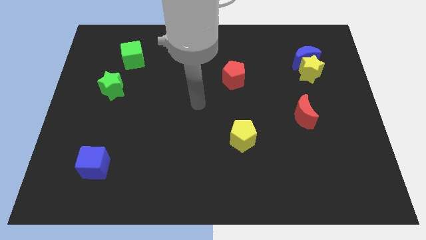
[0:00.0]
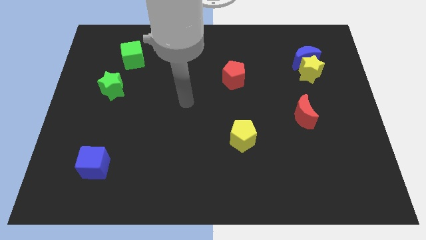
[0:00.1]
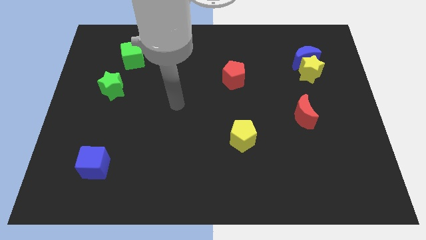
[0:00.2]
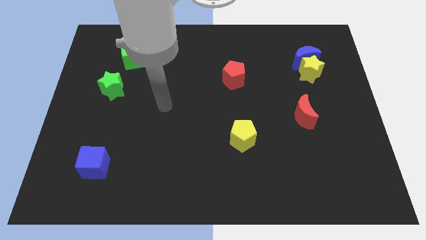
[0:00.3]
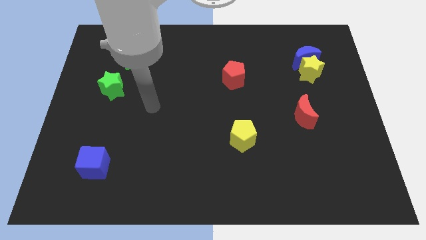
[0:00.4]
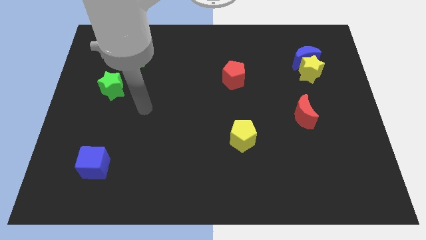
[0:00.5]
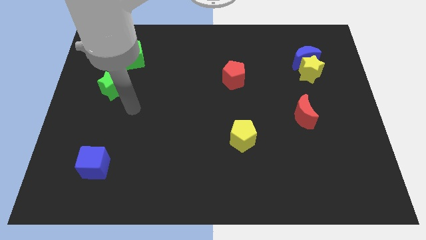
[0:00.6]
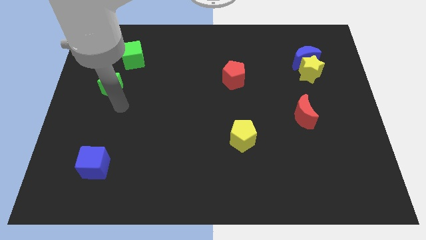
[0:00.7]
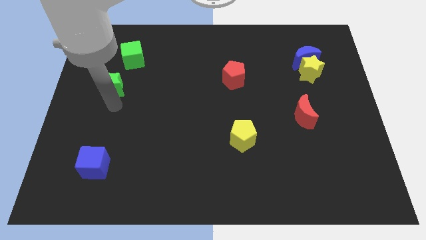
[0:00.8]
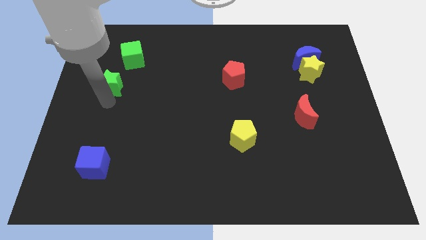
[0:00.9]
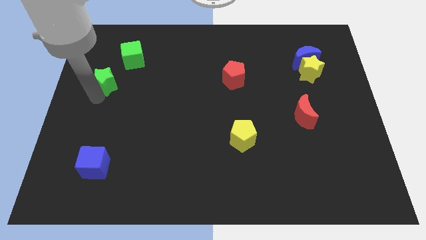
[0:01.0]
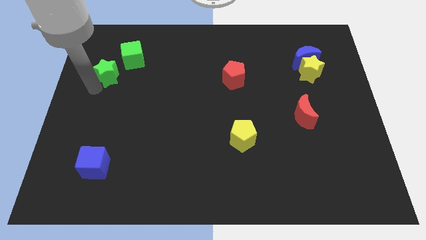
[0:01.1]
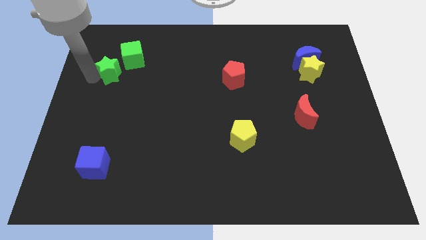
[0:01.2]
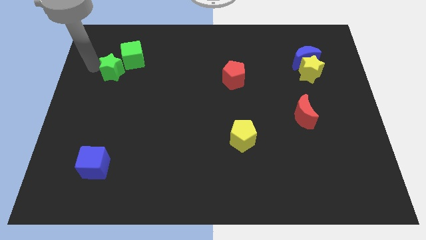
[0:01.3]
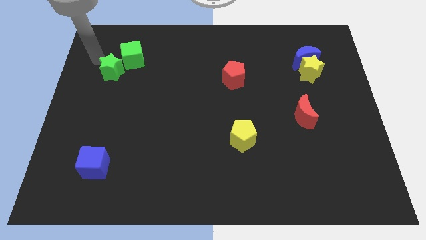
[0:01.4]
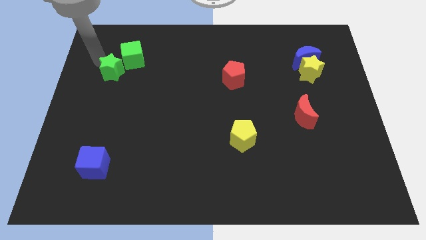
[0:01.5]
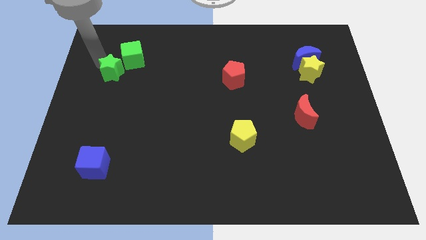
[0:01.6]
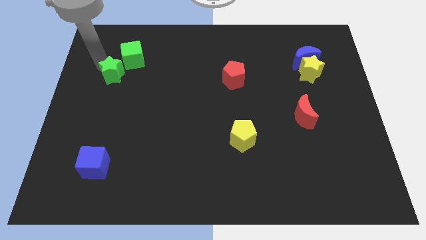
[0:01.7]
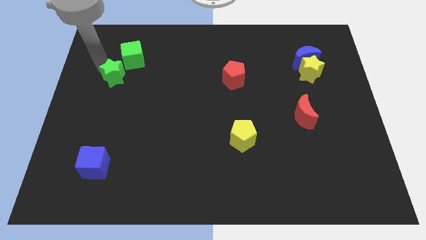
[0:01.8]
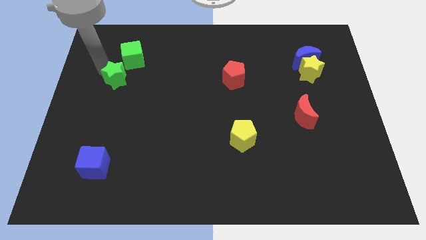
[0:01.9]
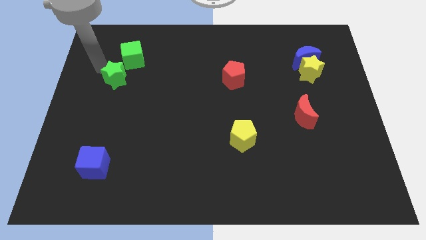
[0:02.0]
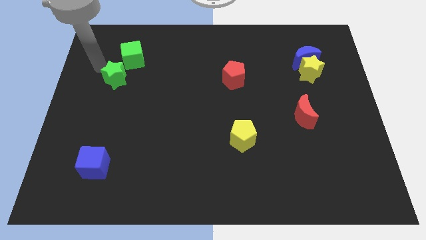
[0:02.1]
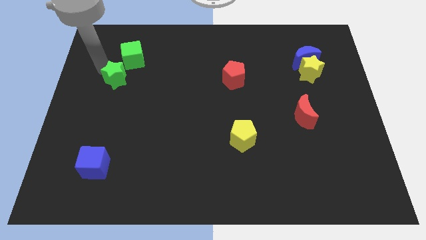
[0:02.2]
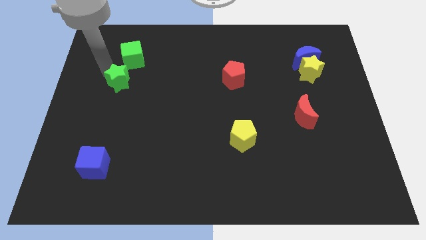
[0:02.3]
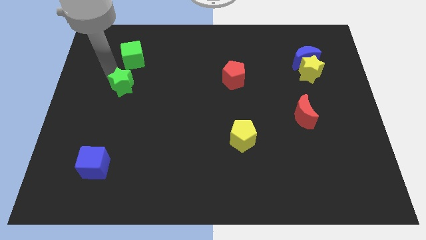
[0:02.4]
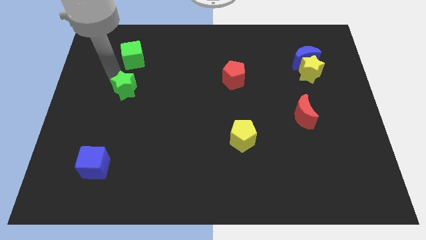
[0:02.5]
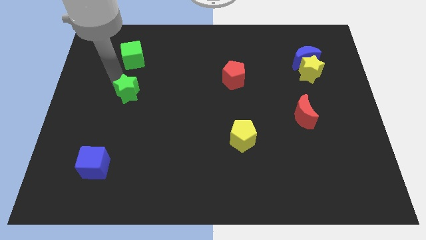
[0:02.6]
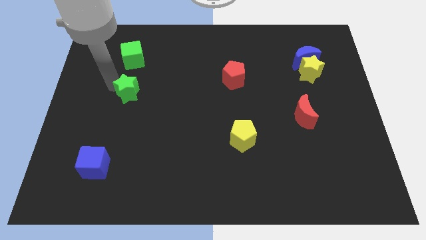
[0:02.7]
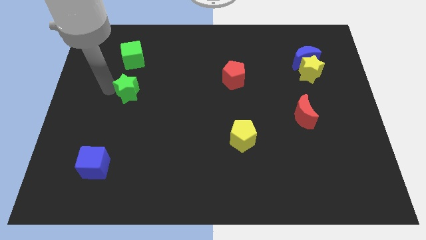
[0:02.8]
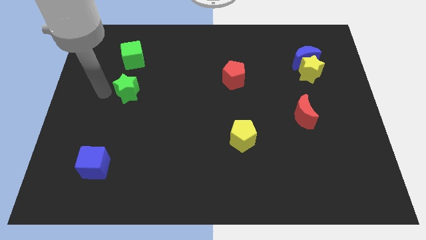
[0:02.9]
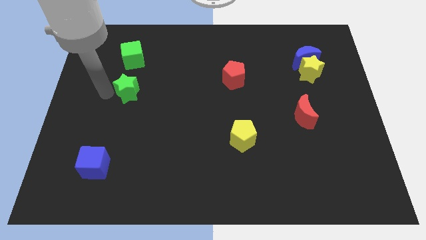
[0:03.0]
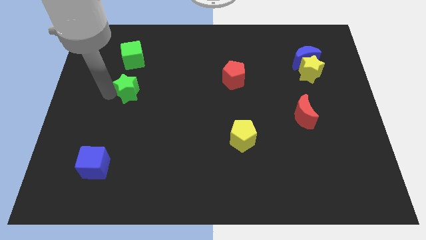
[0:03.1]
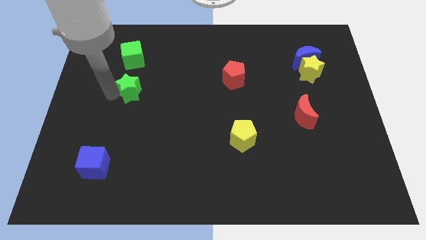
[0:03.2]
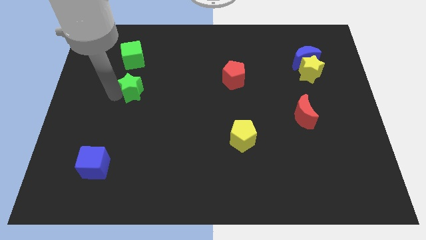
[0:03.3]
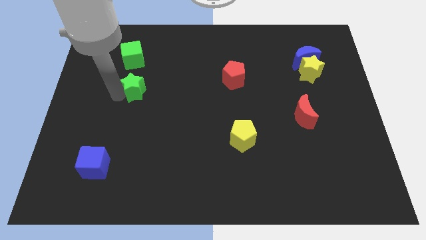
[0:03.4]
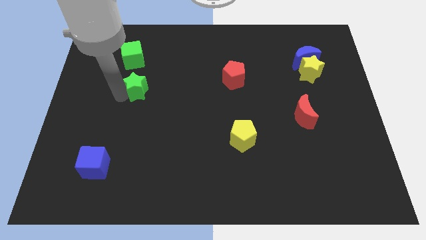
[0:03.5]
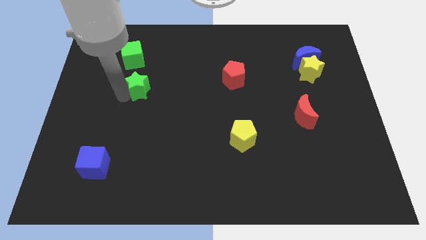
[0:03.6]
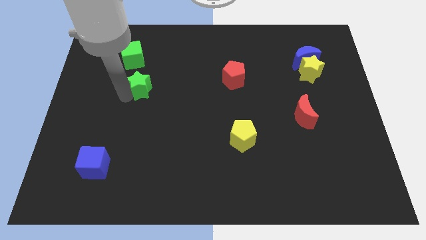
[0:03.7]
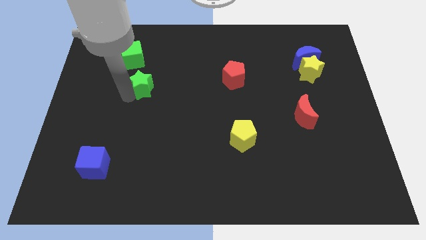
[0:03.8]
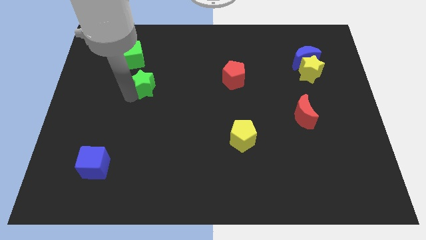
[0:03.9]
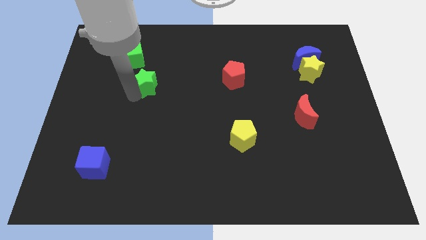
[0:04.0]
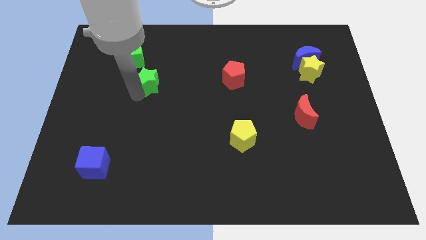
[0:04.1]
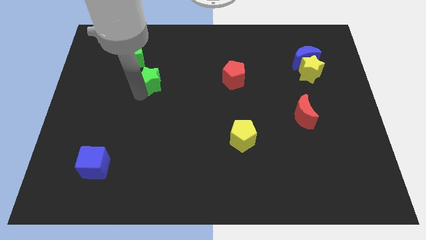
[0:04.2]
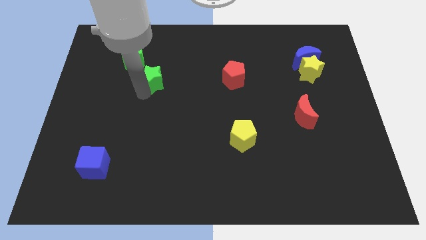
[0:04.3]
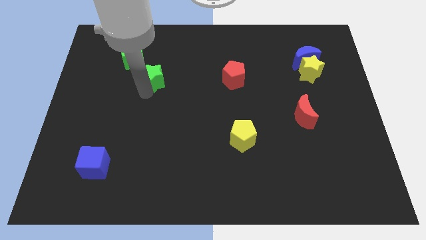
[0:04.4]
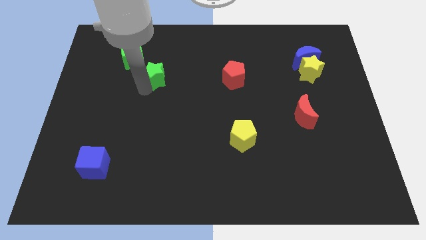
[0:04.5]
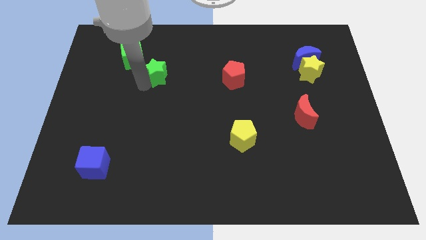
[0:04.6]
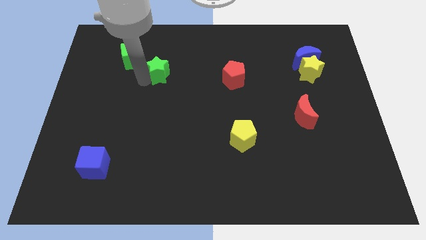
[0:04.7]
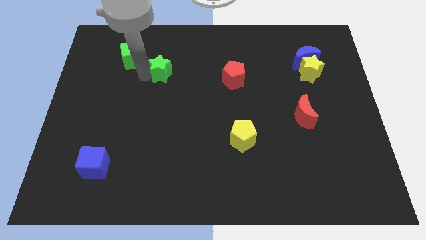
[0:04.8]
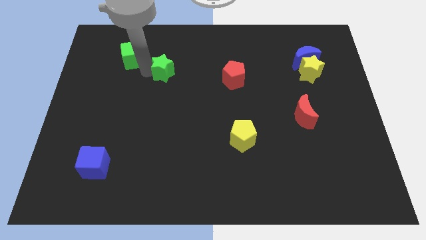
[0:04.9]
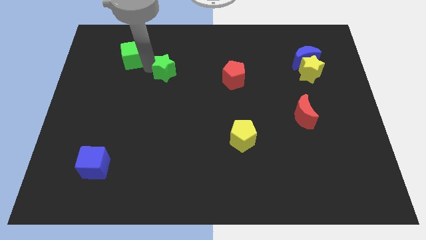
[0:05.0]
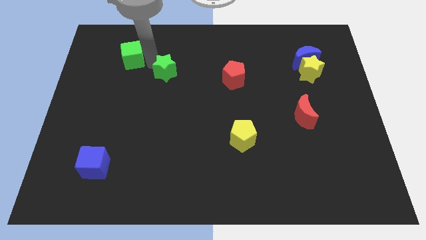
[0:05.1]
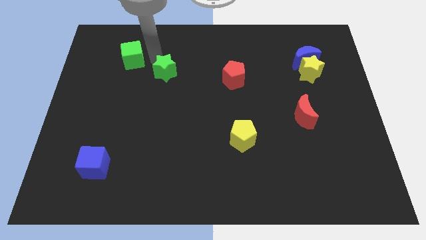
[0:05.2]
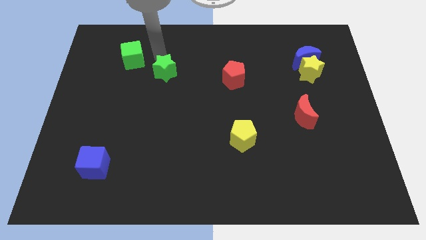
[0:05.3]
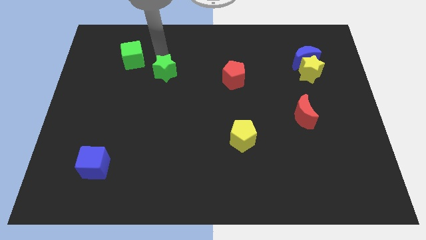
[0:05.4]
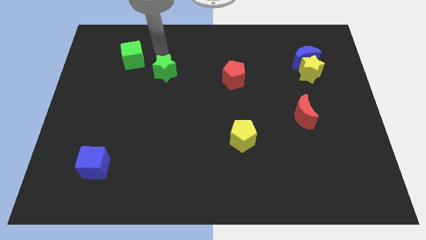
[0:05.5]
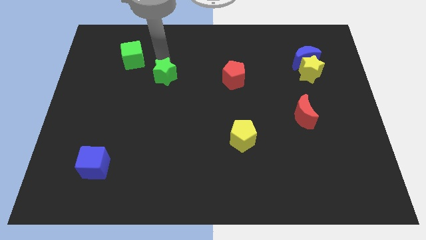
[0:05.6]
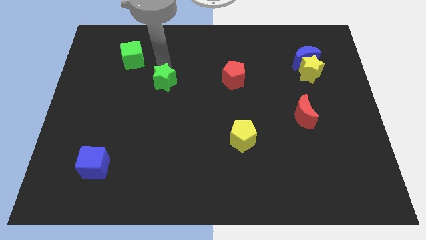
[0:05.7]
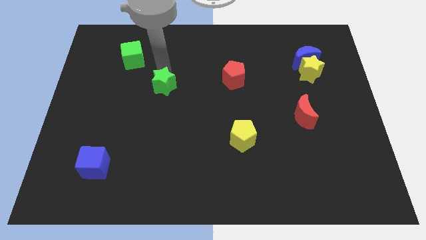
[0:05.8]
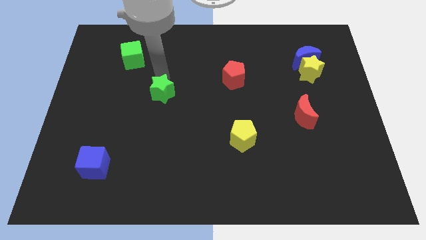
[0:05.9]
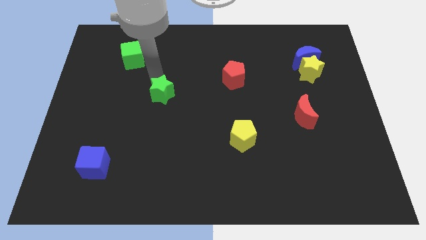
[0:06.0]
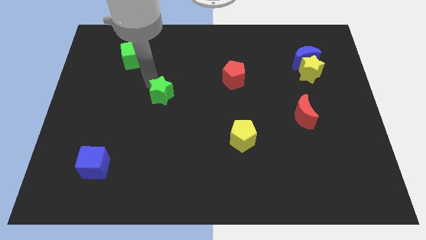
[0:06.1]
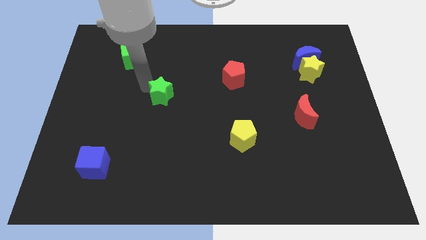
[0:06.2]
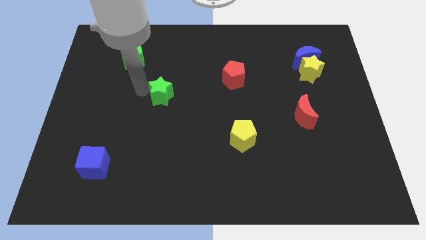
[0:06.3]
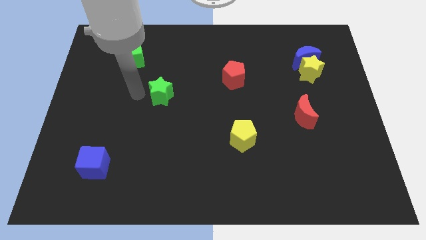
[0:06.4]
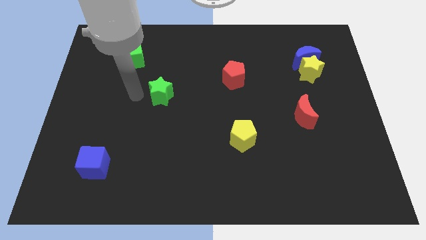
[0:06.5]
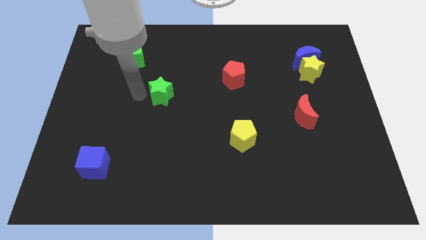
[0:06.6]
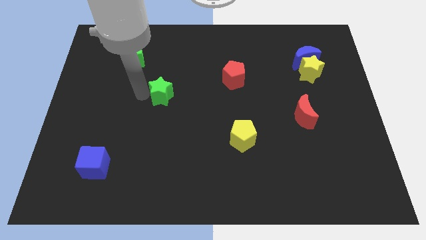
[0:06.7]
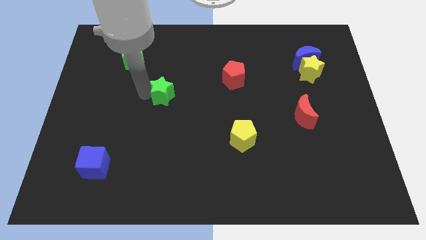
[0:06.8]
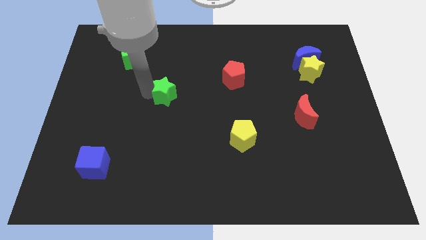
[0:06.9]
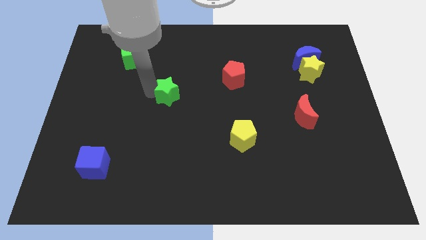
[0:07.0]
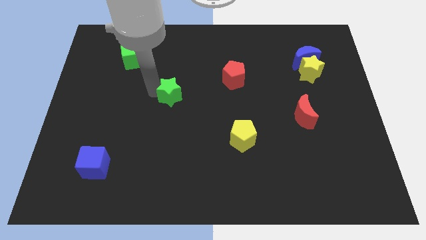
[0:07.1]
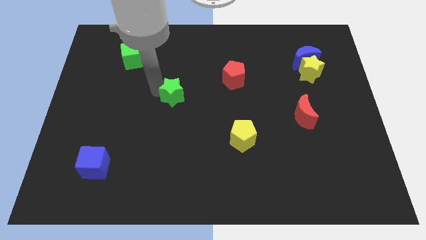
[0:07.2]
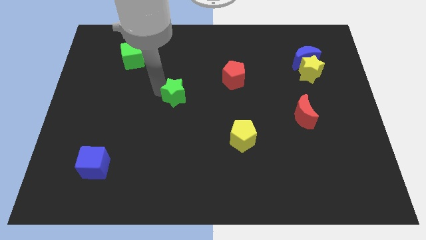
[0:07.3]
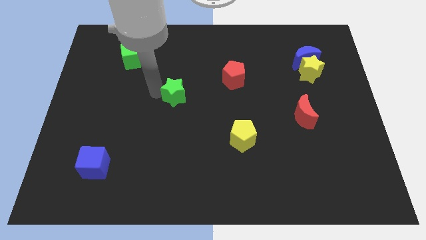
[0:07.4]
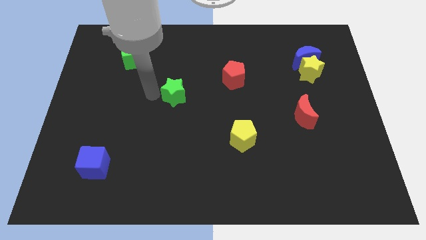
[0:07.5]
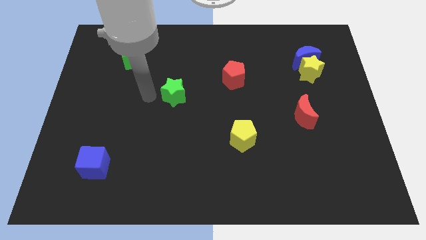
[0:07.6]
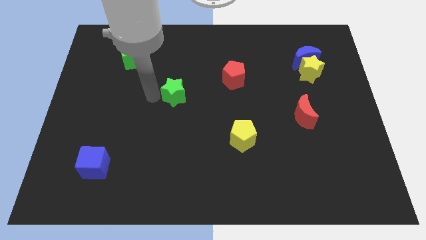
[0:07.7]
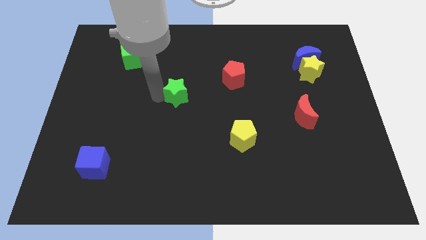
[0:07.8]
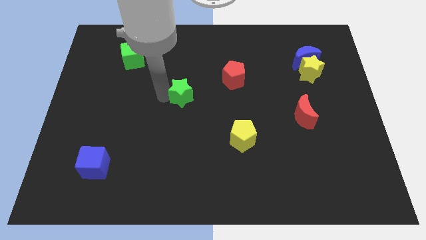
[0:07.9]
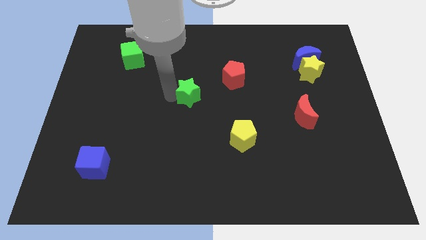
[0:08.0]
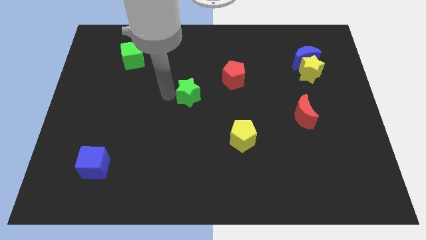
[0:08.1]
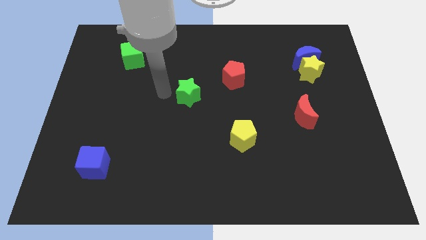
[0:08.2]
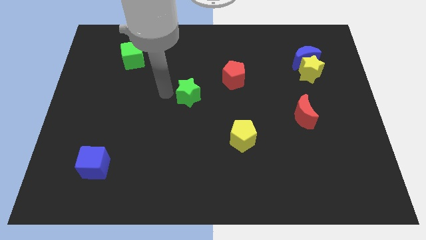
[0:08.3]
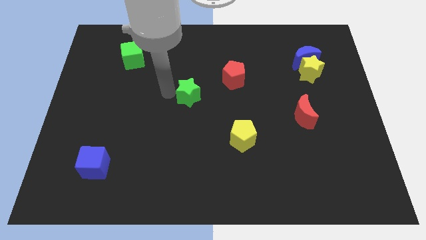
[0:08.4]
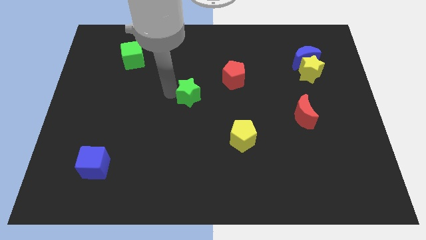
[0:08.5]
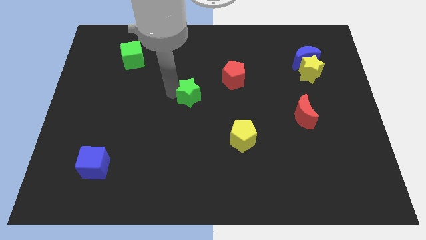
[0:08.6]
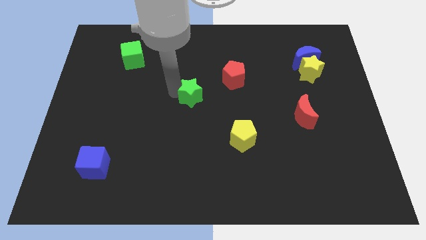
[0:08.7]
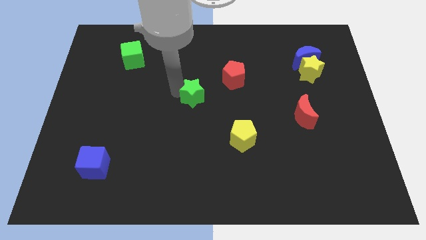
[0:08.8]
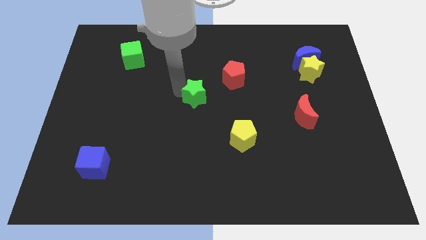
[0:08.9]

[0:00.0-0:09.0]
push the green star to the right
